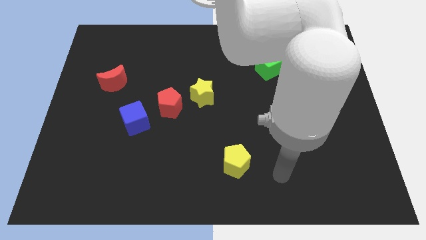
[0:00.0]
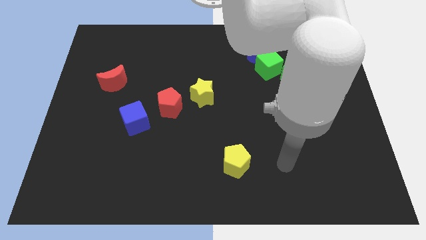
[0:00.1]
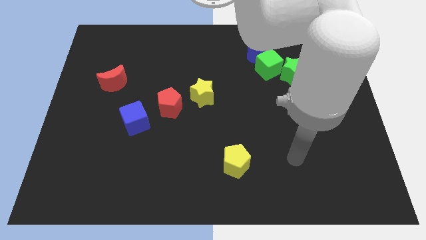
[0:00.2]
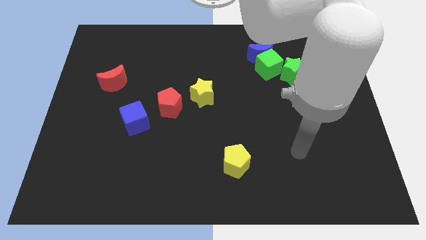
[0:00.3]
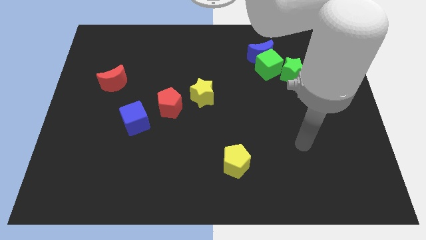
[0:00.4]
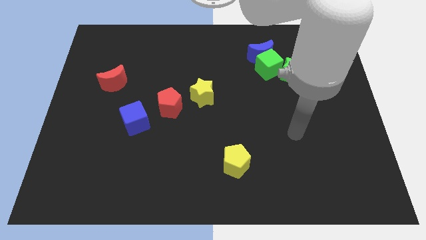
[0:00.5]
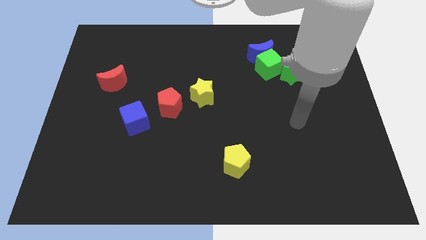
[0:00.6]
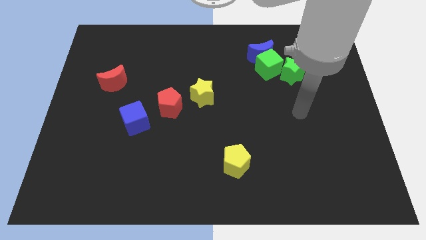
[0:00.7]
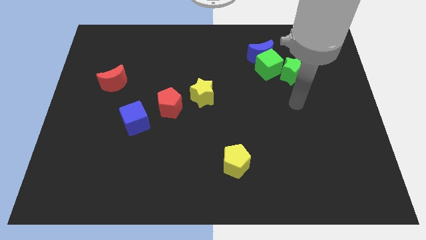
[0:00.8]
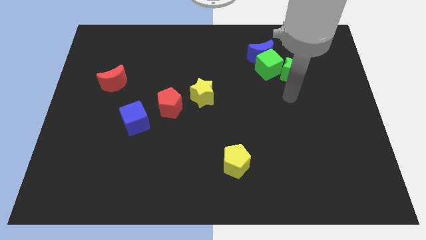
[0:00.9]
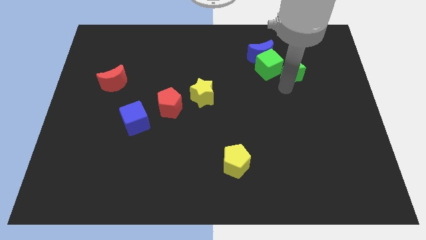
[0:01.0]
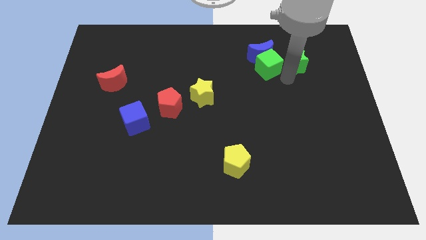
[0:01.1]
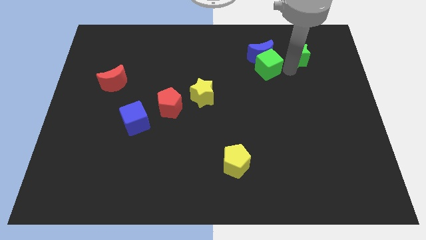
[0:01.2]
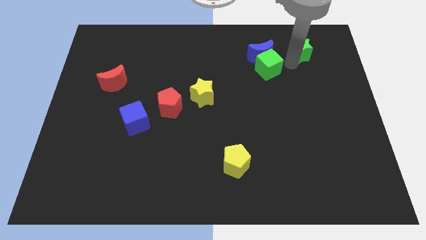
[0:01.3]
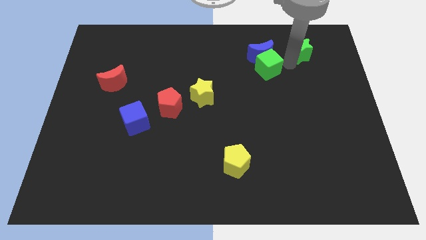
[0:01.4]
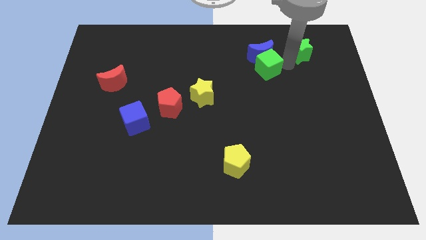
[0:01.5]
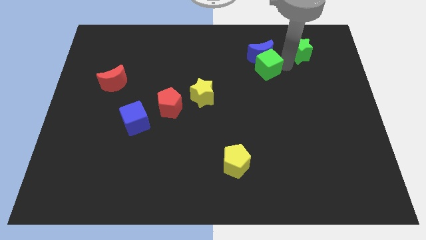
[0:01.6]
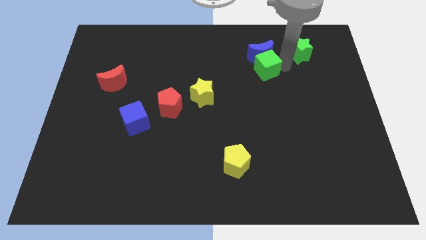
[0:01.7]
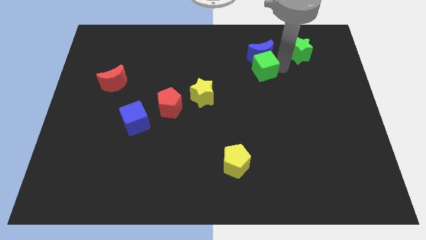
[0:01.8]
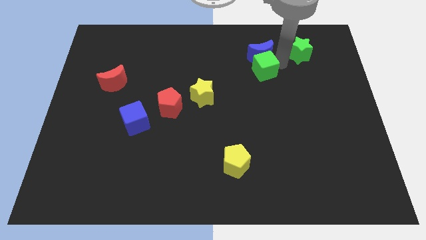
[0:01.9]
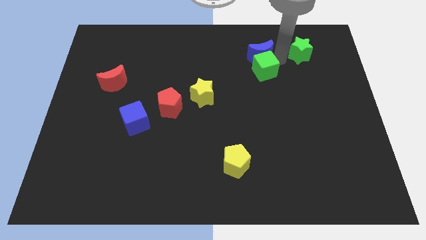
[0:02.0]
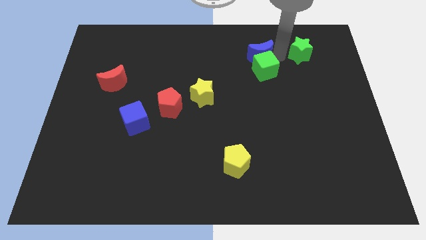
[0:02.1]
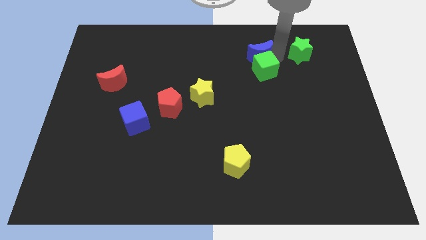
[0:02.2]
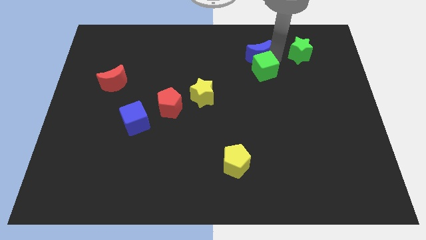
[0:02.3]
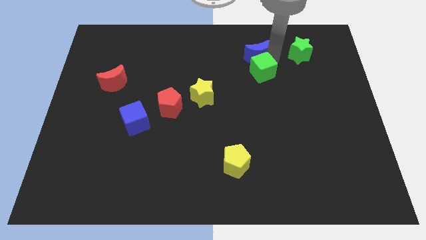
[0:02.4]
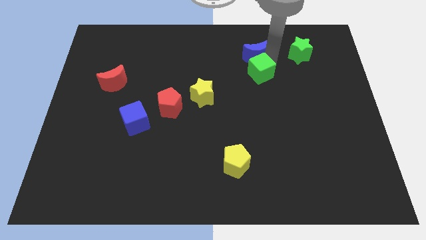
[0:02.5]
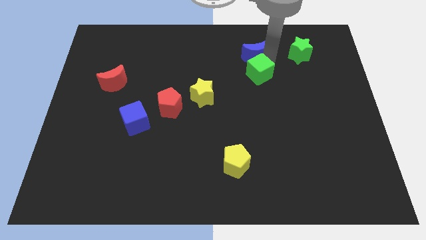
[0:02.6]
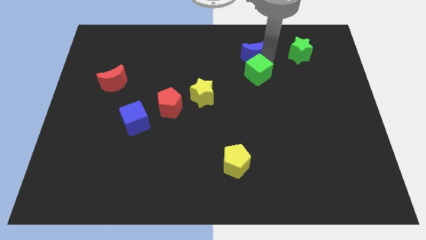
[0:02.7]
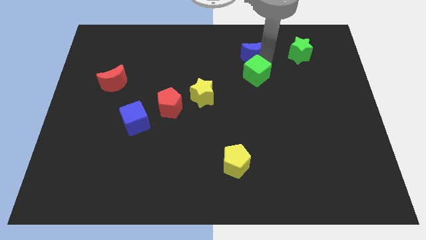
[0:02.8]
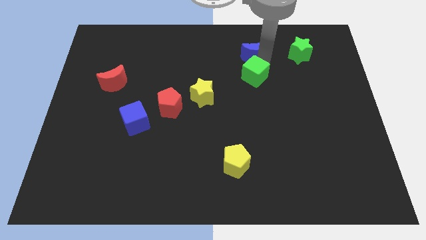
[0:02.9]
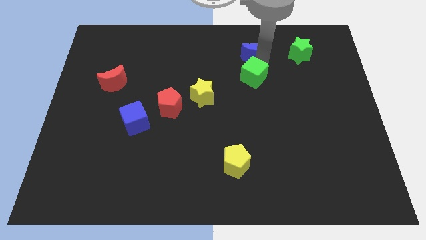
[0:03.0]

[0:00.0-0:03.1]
separate the green cube from the blue moon and green star

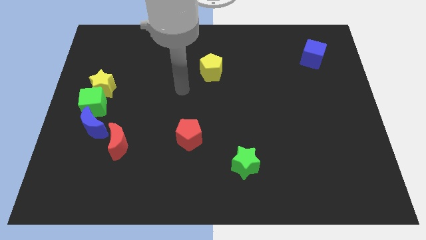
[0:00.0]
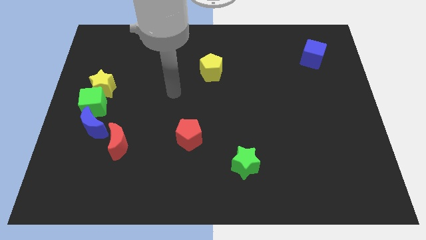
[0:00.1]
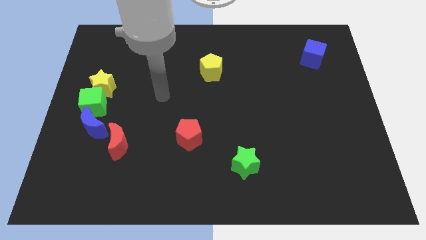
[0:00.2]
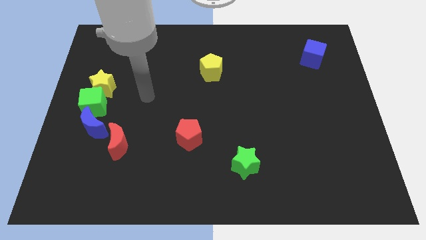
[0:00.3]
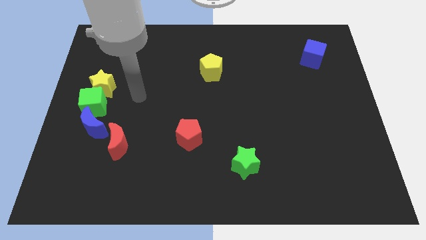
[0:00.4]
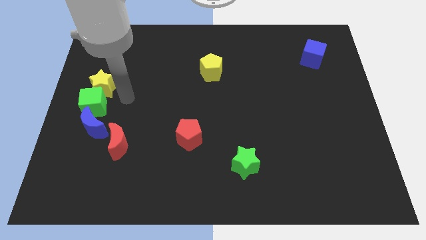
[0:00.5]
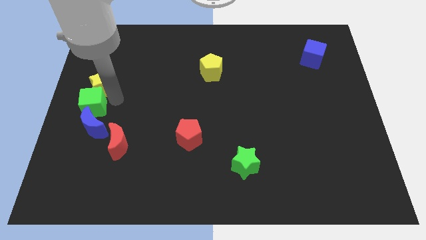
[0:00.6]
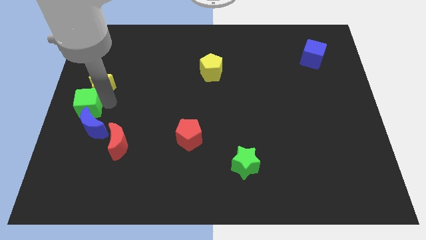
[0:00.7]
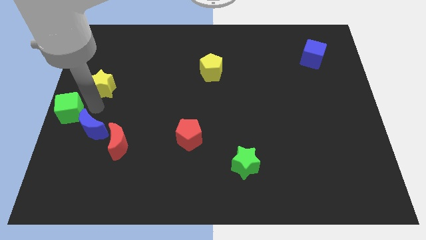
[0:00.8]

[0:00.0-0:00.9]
move the yellow star away from the green cube

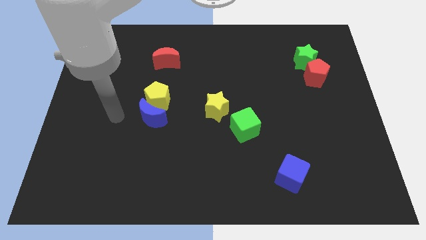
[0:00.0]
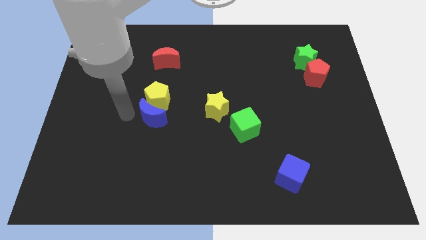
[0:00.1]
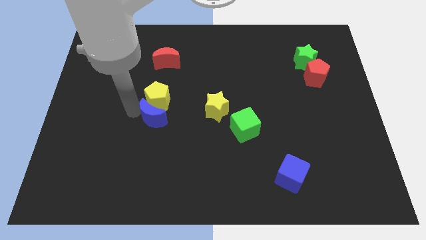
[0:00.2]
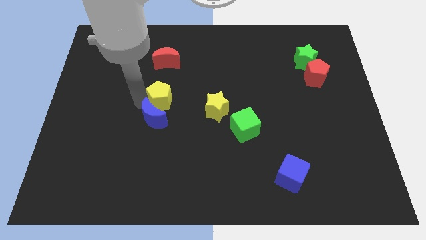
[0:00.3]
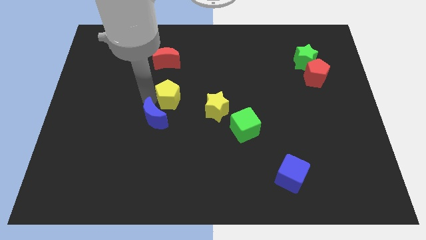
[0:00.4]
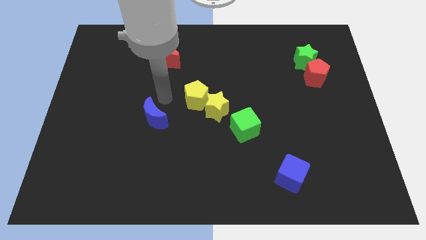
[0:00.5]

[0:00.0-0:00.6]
move the blue moon away from the yellow pentagon

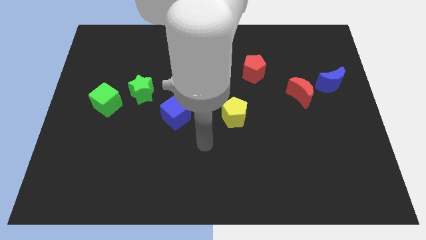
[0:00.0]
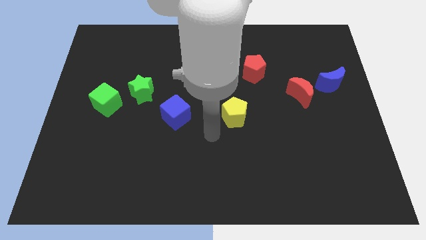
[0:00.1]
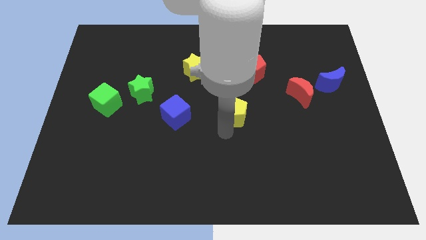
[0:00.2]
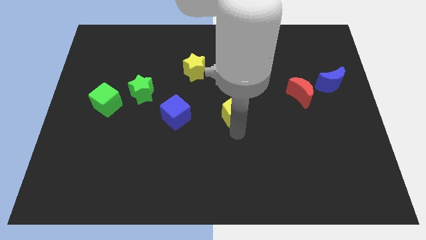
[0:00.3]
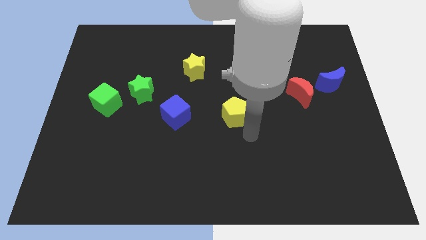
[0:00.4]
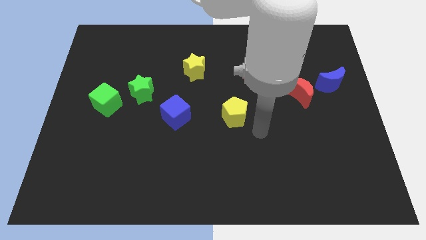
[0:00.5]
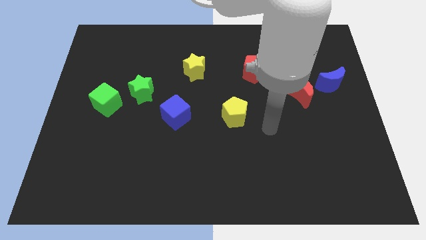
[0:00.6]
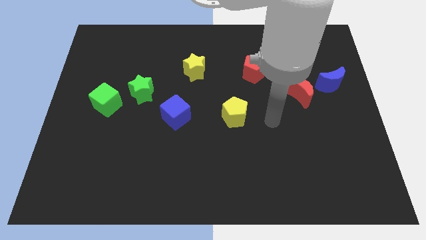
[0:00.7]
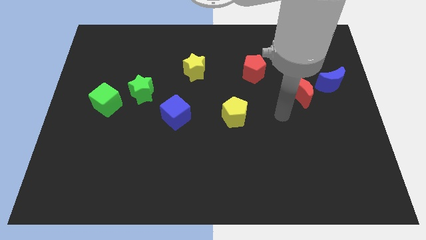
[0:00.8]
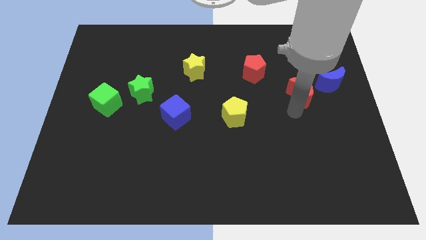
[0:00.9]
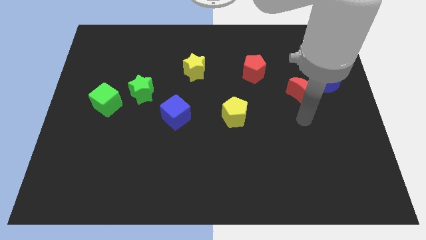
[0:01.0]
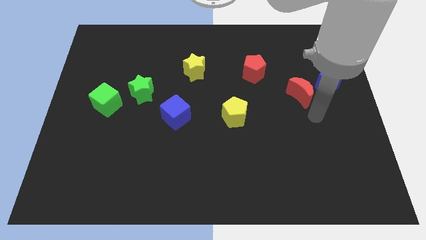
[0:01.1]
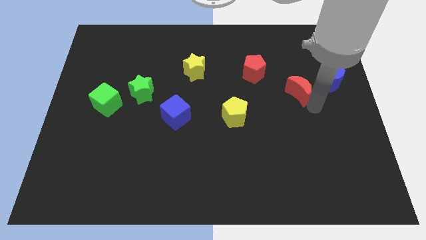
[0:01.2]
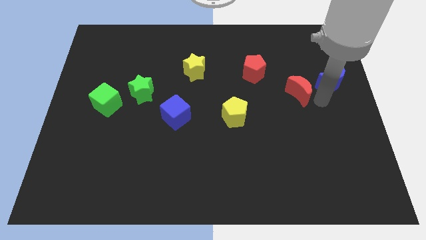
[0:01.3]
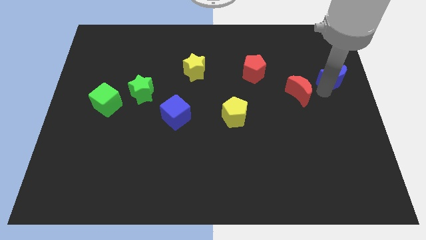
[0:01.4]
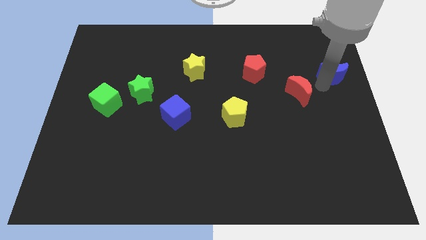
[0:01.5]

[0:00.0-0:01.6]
pull the red moon apart from the blue moon

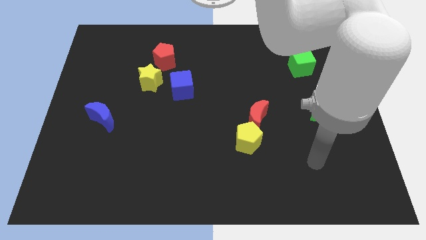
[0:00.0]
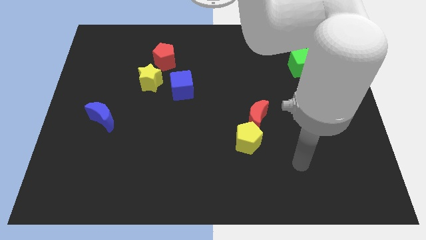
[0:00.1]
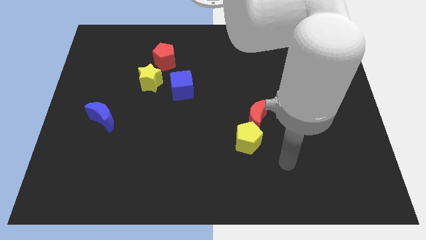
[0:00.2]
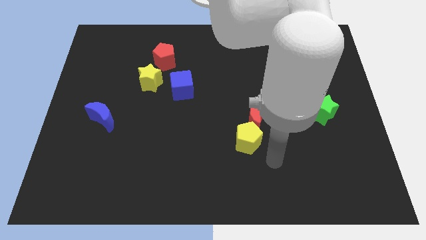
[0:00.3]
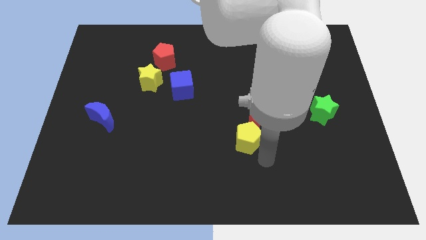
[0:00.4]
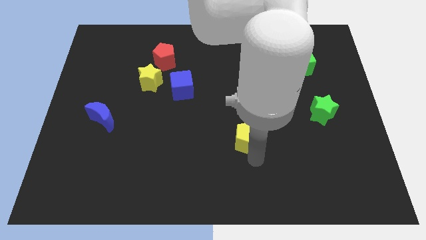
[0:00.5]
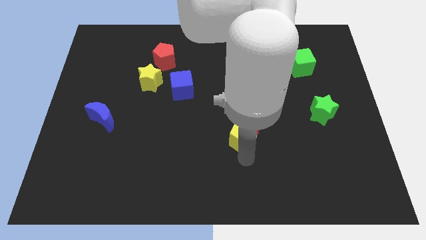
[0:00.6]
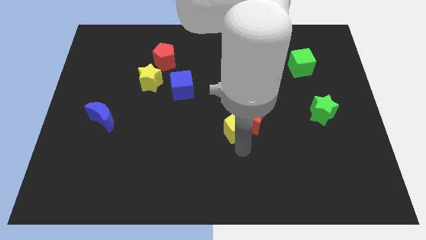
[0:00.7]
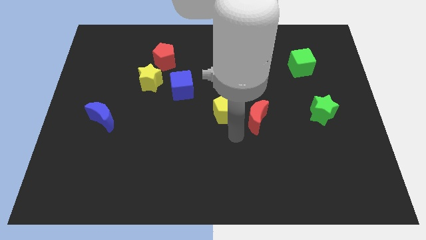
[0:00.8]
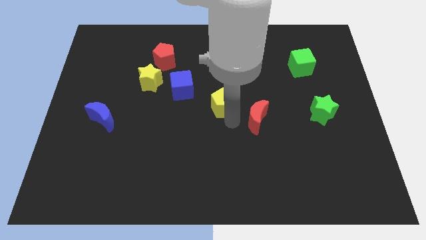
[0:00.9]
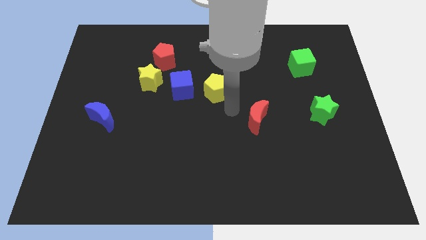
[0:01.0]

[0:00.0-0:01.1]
pull the red moon apart from the yellow pentagon

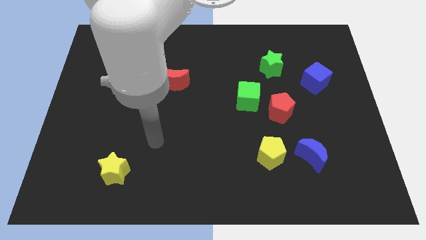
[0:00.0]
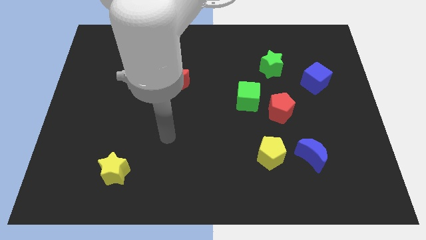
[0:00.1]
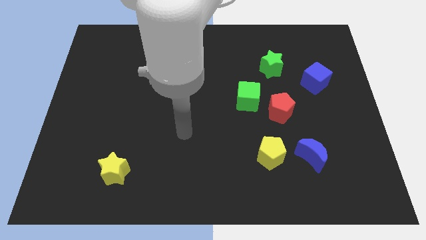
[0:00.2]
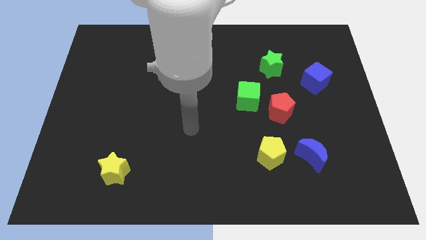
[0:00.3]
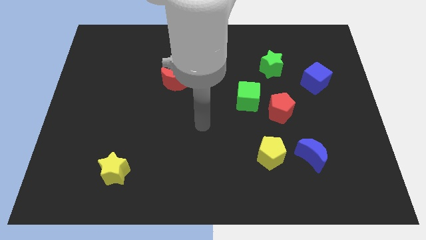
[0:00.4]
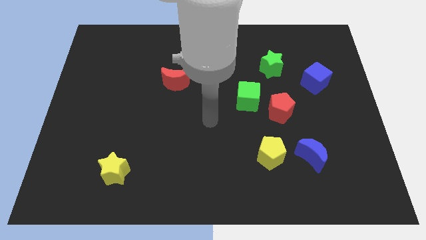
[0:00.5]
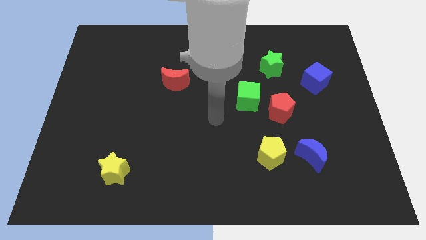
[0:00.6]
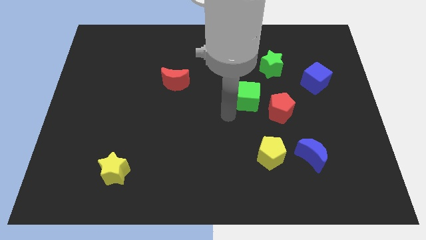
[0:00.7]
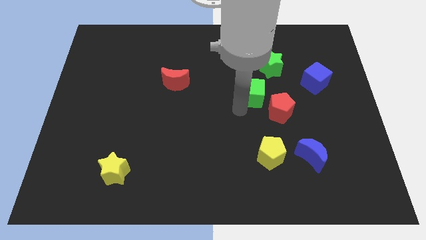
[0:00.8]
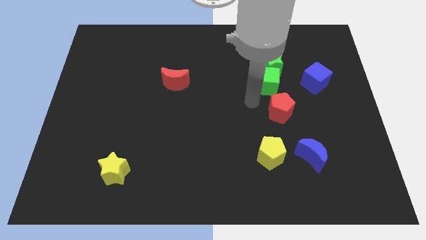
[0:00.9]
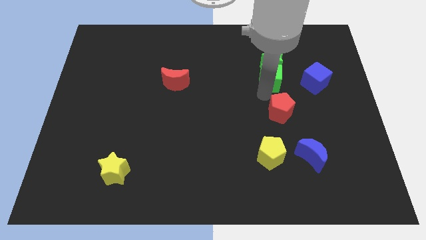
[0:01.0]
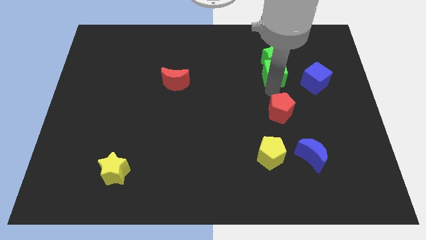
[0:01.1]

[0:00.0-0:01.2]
separate the red pentagon from the green cube

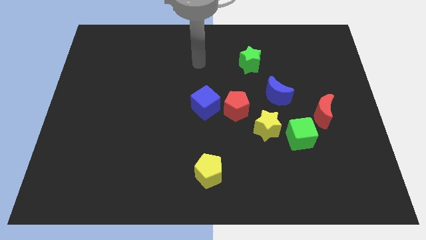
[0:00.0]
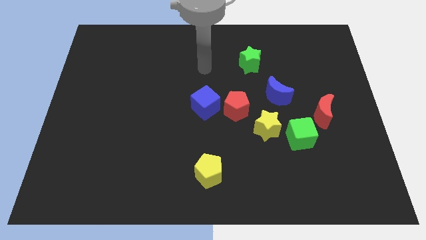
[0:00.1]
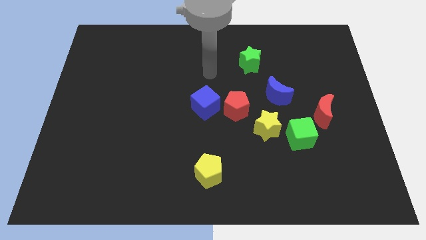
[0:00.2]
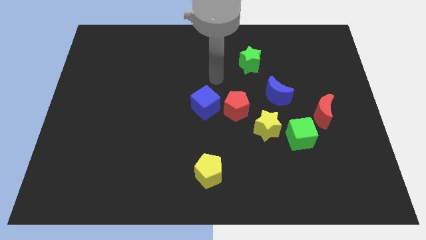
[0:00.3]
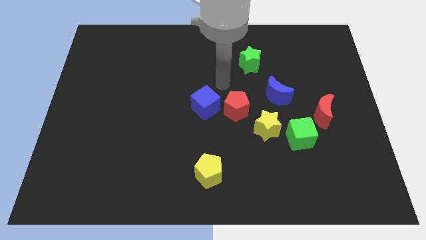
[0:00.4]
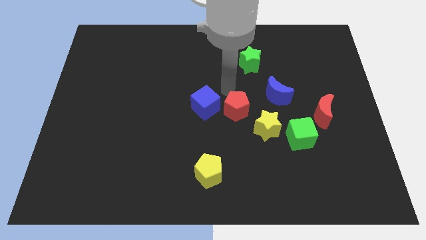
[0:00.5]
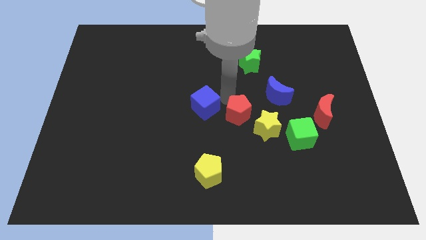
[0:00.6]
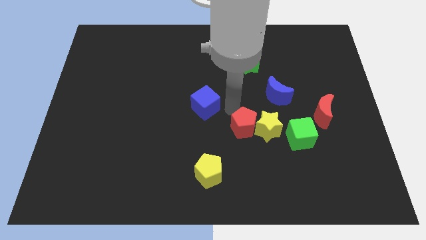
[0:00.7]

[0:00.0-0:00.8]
pull the blue cube apart from the red pentagon

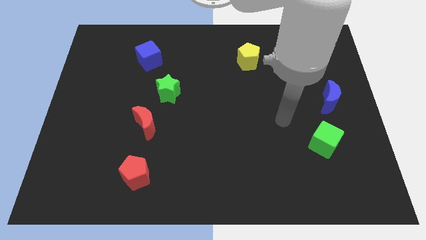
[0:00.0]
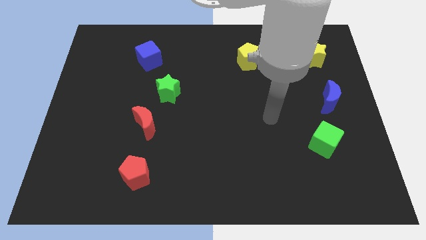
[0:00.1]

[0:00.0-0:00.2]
separate the red moon from the green star

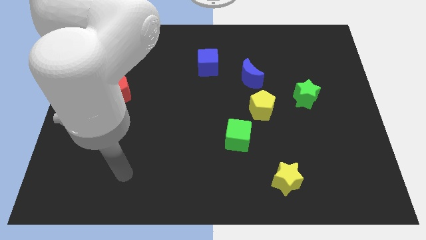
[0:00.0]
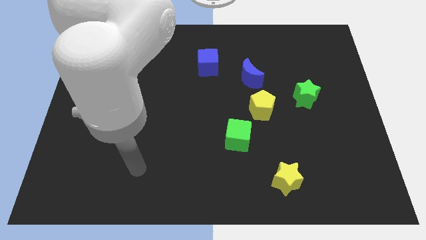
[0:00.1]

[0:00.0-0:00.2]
pull the blue moon apart from the yellow pentagon
